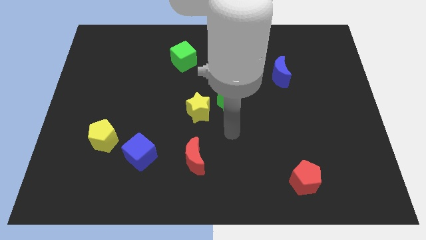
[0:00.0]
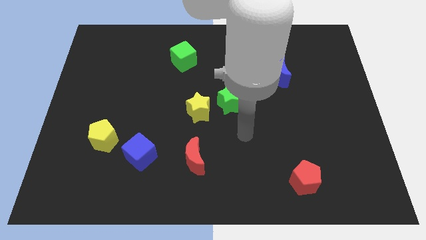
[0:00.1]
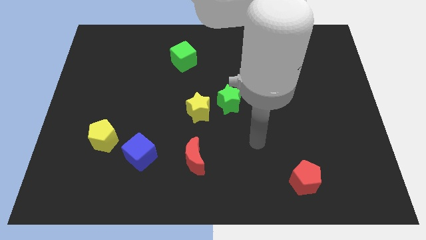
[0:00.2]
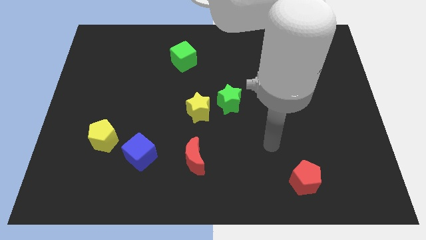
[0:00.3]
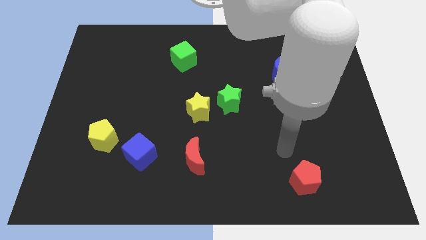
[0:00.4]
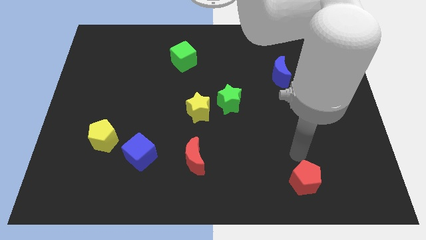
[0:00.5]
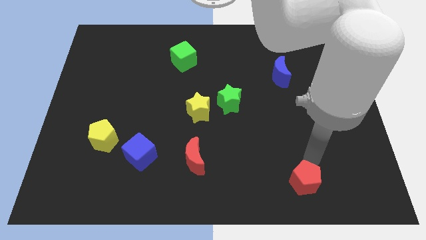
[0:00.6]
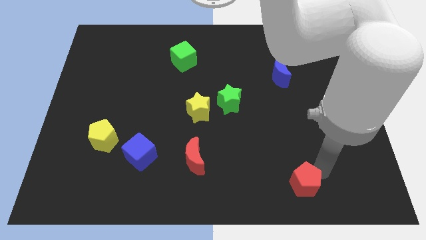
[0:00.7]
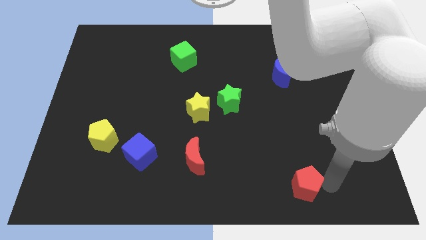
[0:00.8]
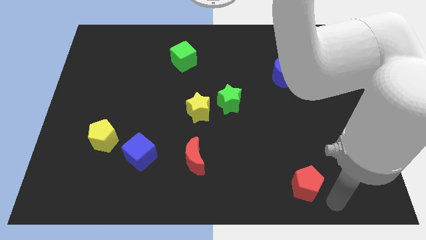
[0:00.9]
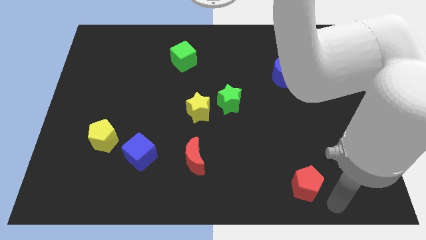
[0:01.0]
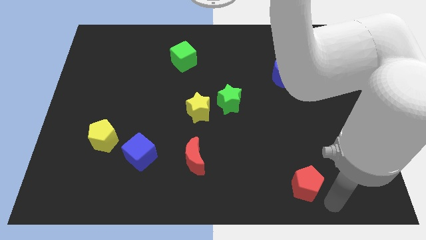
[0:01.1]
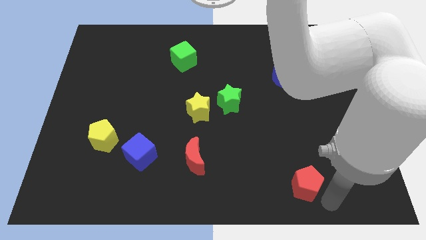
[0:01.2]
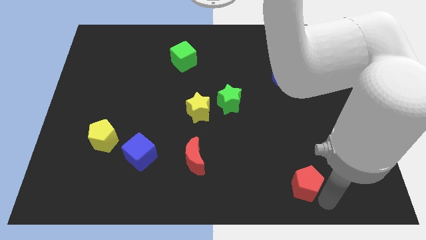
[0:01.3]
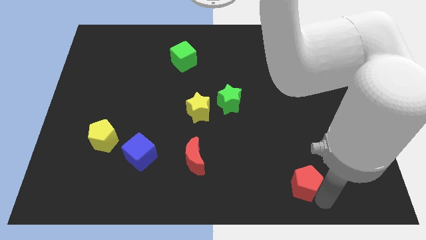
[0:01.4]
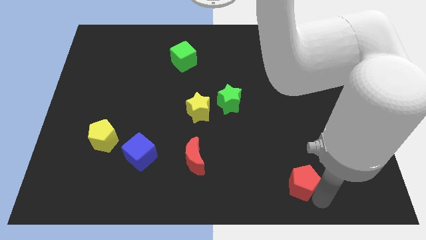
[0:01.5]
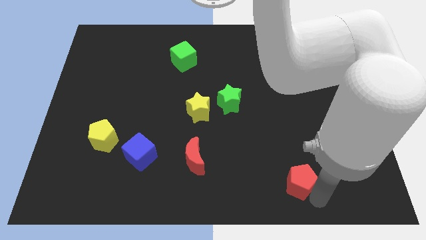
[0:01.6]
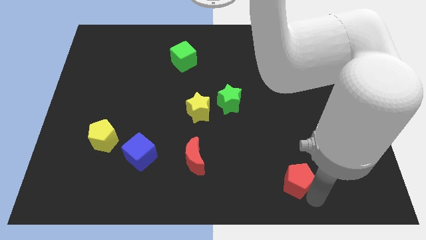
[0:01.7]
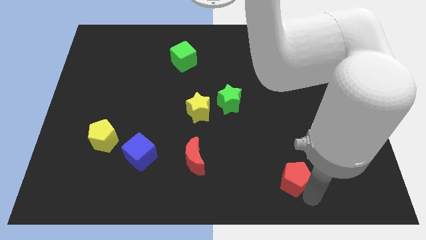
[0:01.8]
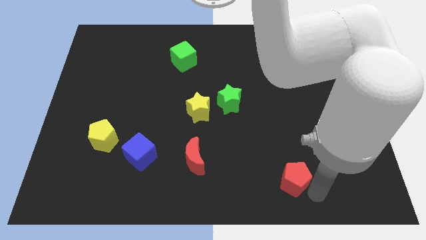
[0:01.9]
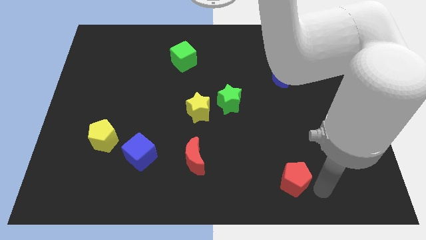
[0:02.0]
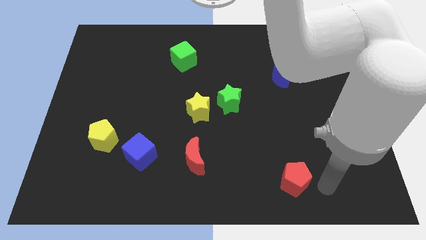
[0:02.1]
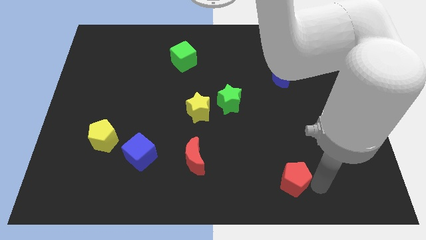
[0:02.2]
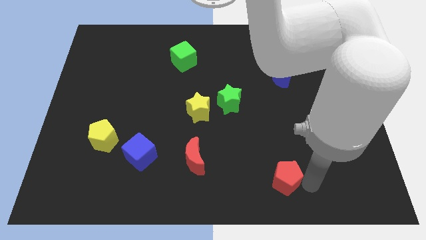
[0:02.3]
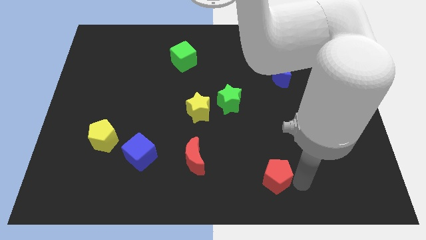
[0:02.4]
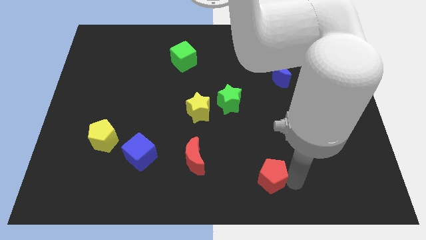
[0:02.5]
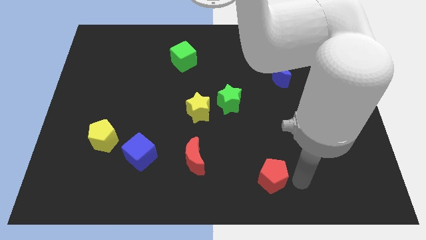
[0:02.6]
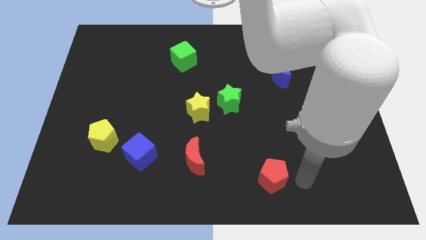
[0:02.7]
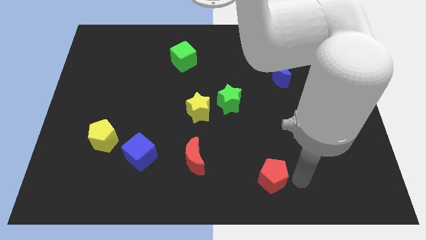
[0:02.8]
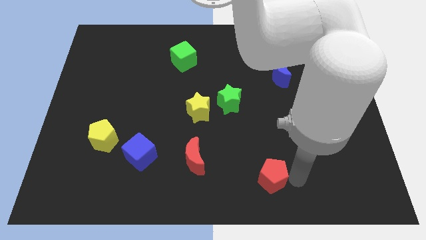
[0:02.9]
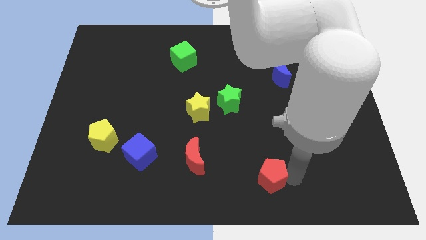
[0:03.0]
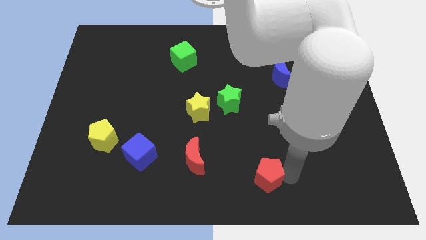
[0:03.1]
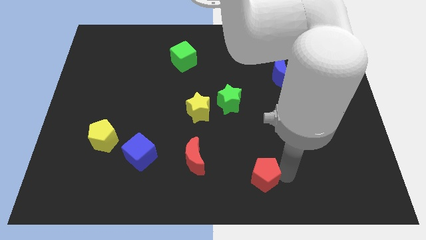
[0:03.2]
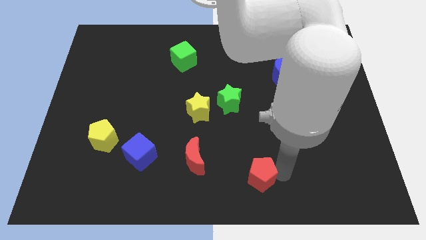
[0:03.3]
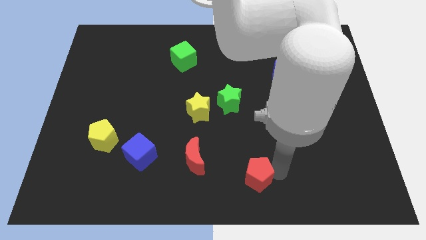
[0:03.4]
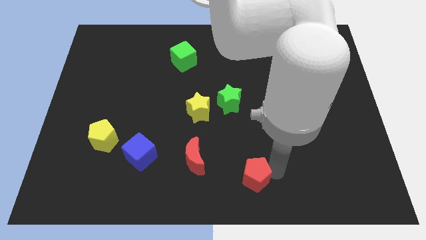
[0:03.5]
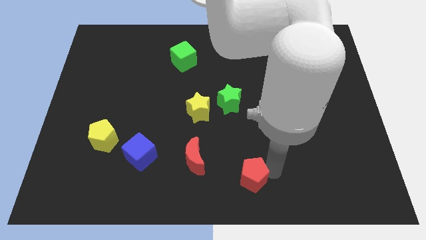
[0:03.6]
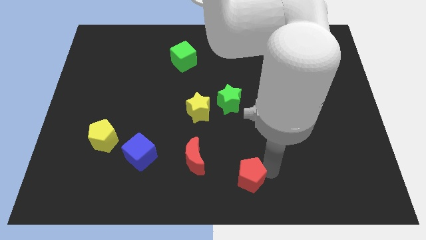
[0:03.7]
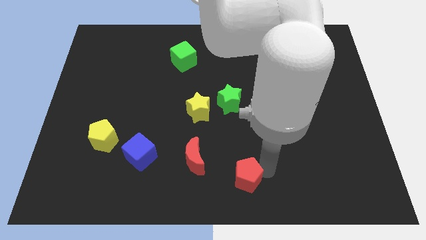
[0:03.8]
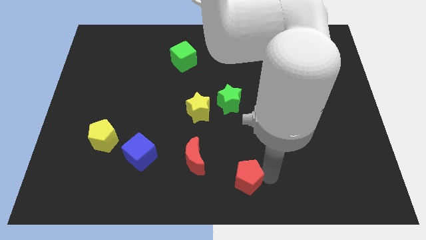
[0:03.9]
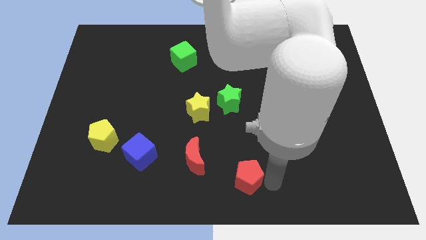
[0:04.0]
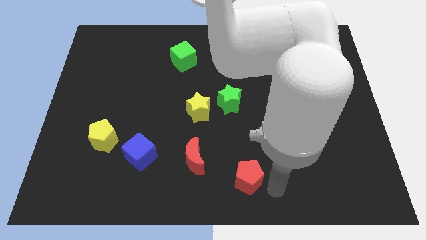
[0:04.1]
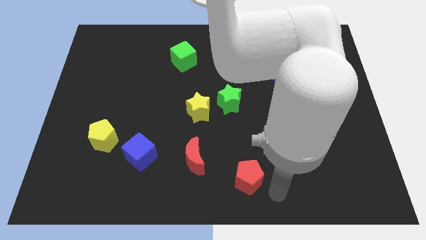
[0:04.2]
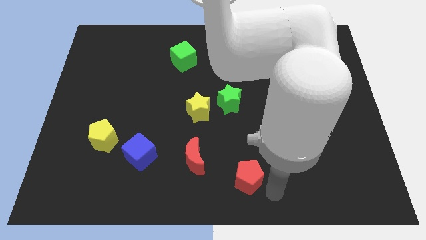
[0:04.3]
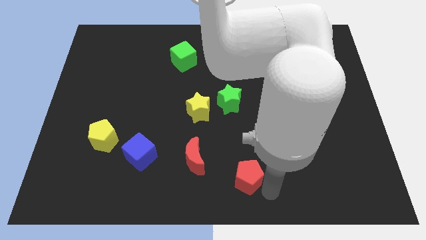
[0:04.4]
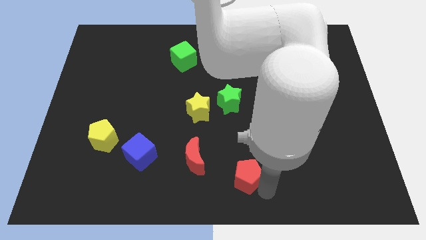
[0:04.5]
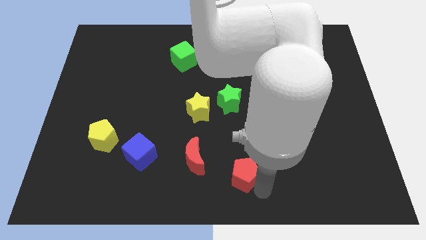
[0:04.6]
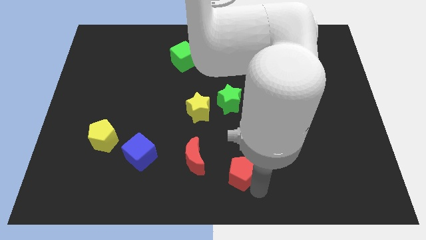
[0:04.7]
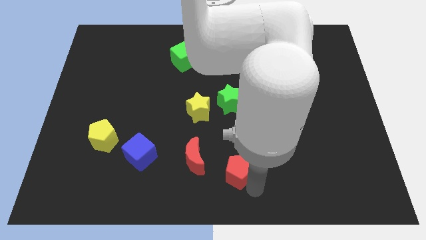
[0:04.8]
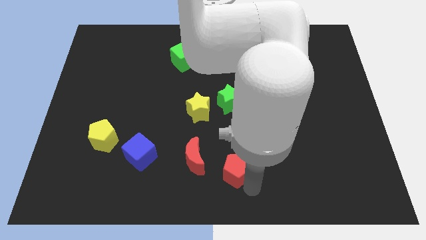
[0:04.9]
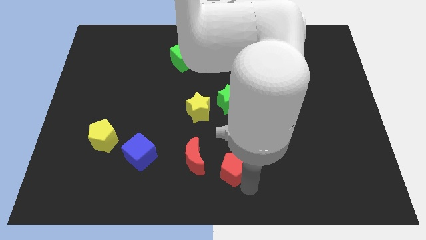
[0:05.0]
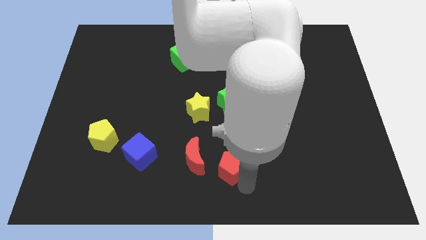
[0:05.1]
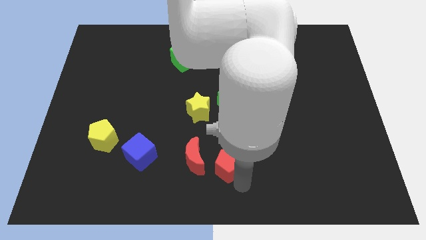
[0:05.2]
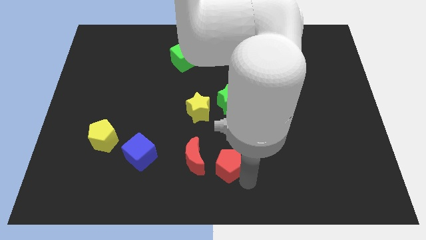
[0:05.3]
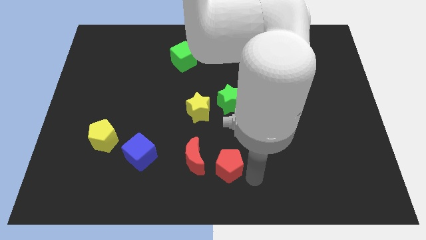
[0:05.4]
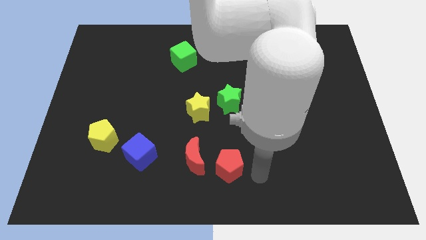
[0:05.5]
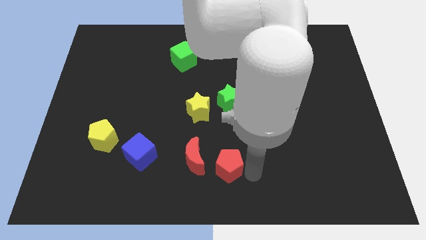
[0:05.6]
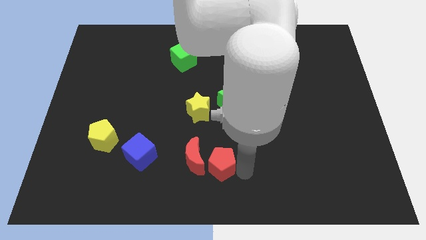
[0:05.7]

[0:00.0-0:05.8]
slide the red pentagon to the red moon
